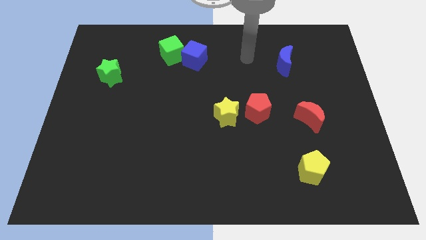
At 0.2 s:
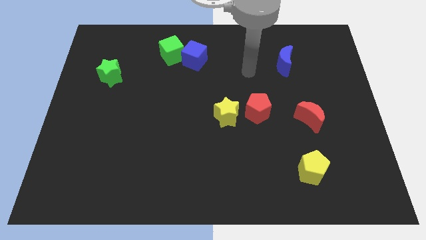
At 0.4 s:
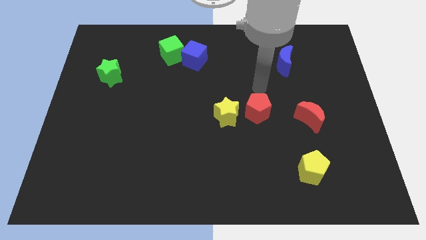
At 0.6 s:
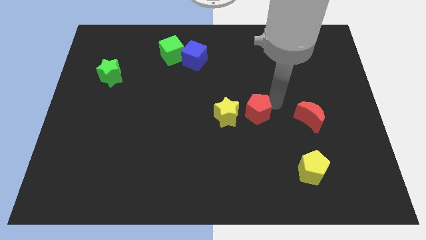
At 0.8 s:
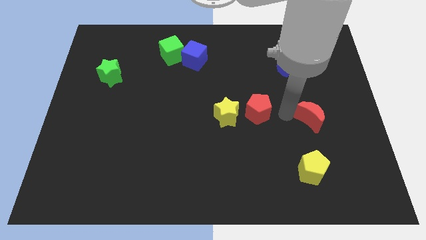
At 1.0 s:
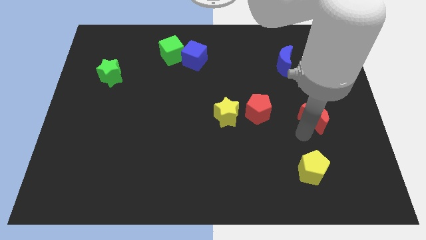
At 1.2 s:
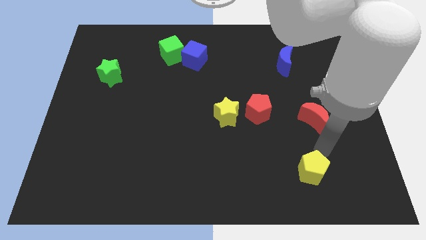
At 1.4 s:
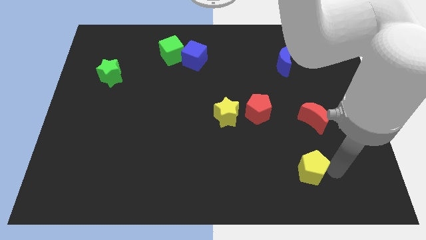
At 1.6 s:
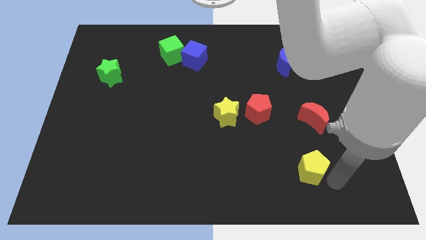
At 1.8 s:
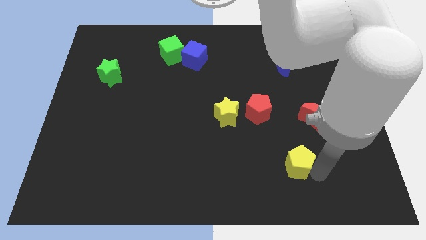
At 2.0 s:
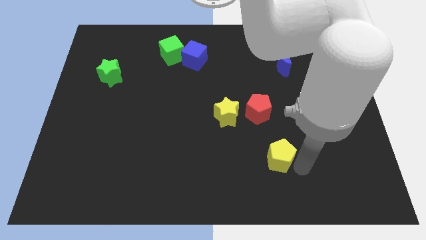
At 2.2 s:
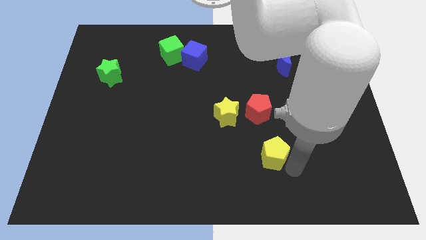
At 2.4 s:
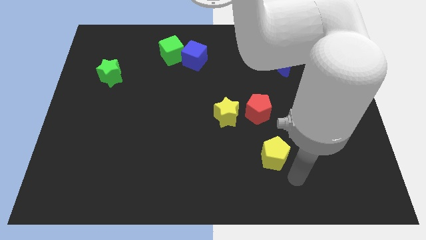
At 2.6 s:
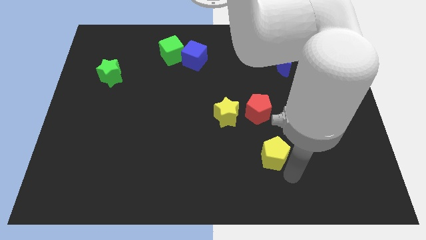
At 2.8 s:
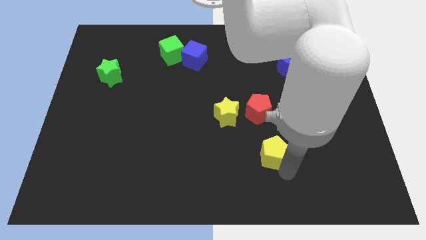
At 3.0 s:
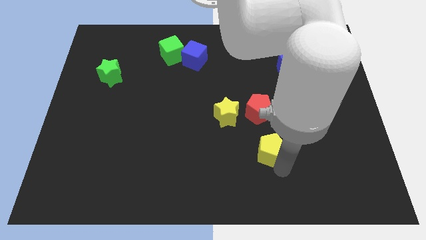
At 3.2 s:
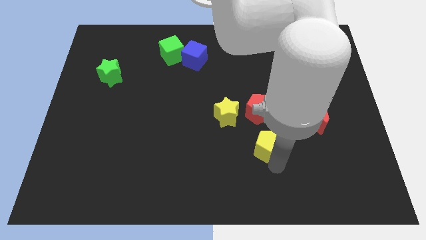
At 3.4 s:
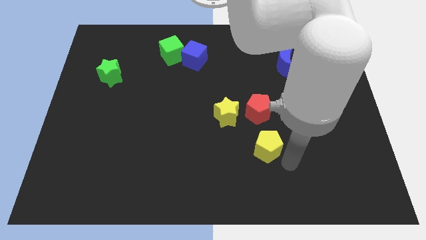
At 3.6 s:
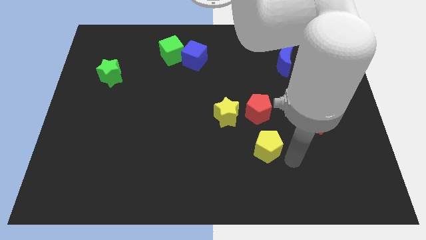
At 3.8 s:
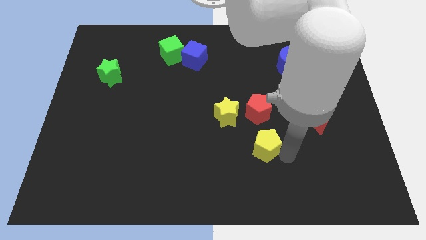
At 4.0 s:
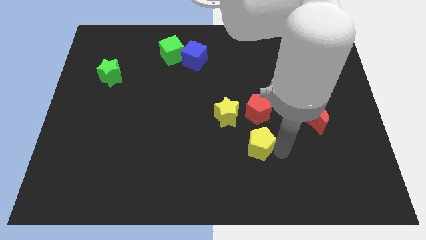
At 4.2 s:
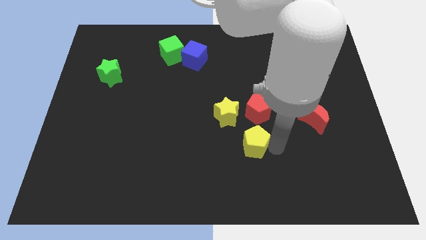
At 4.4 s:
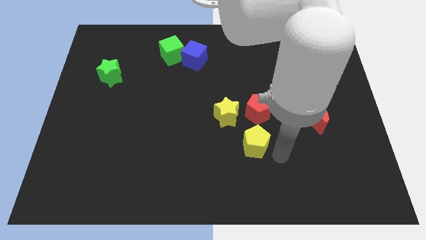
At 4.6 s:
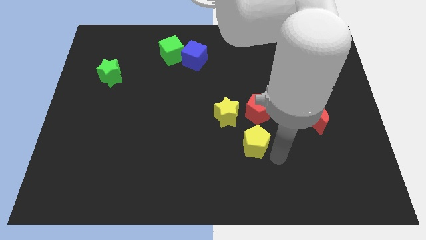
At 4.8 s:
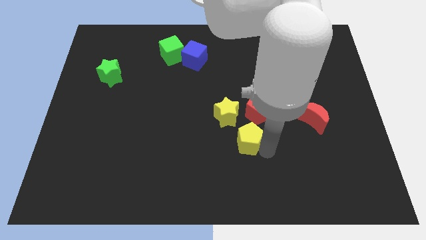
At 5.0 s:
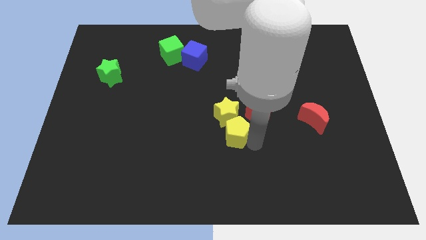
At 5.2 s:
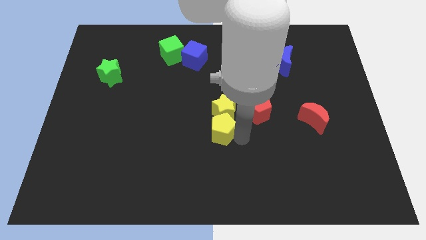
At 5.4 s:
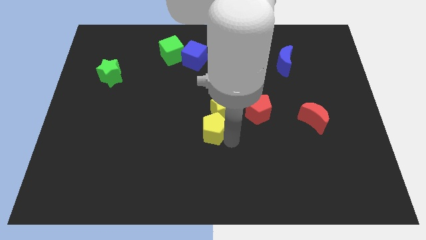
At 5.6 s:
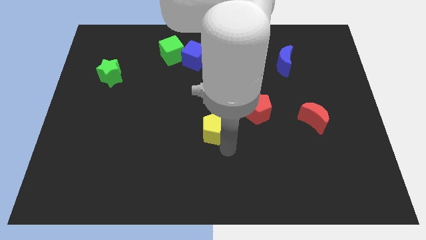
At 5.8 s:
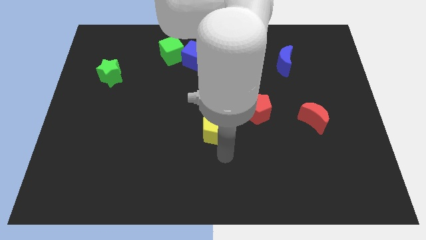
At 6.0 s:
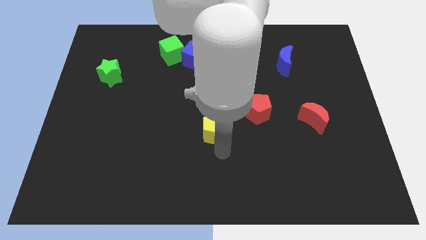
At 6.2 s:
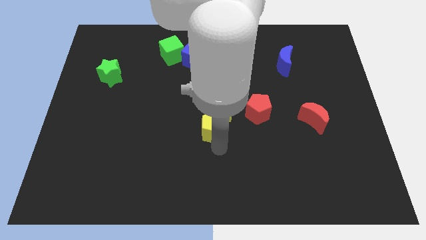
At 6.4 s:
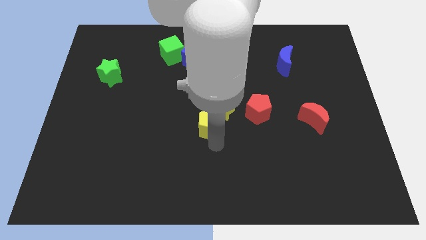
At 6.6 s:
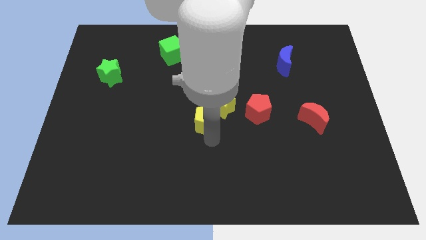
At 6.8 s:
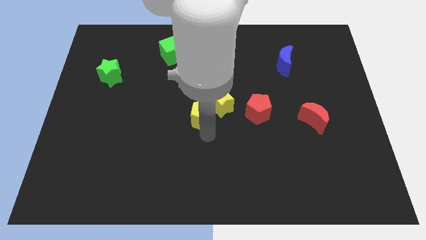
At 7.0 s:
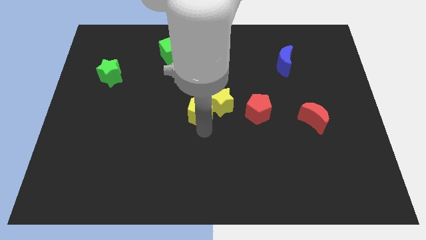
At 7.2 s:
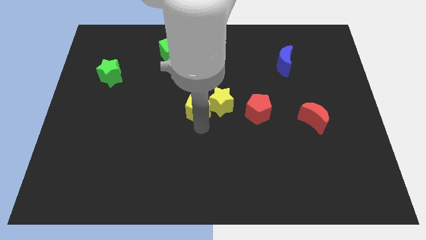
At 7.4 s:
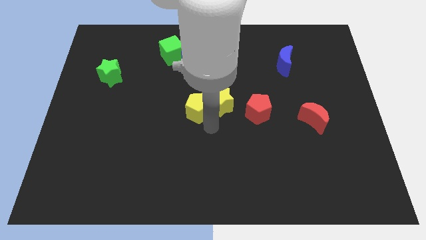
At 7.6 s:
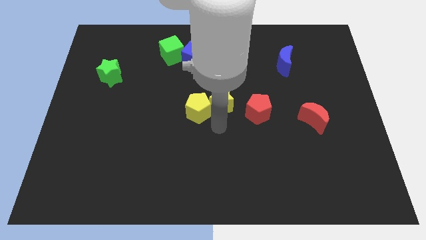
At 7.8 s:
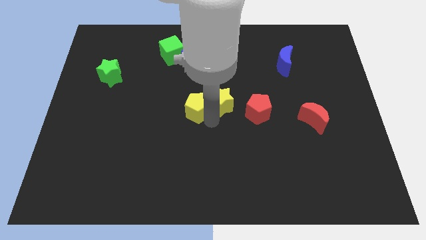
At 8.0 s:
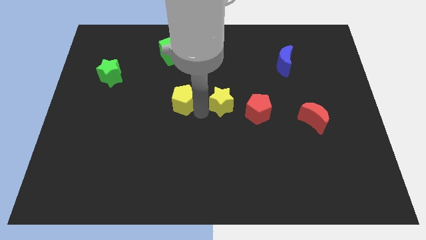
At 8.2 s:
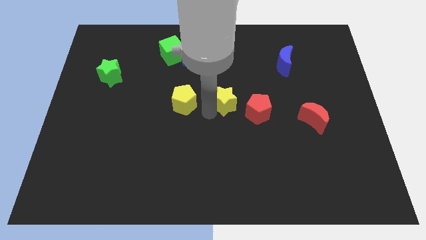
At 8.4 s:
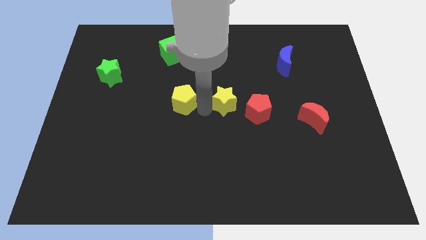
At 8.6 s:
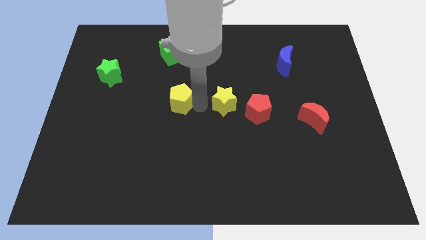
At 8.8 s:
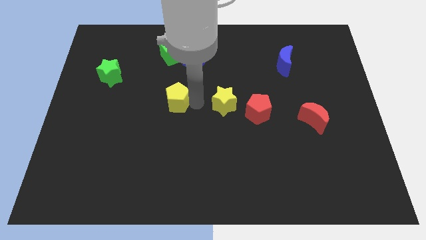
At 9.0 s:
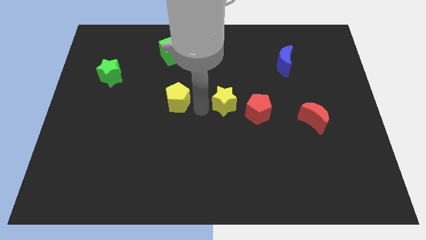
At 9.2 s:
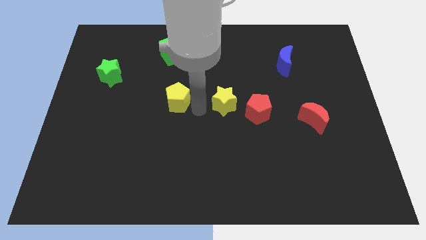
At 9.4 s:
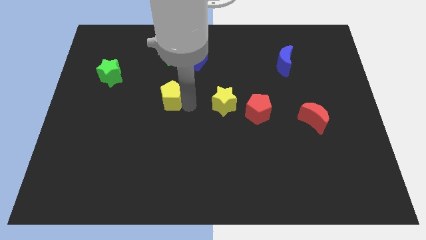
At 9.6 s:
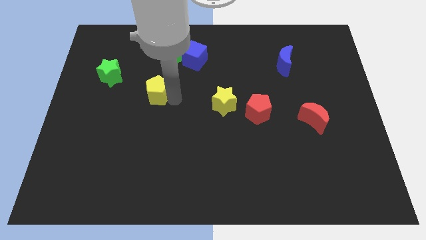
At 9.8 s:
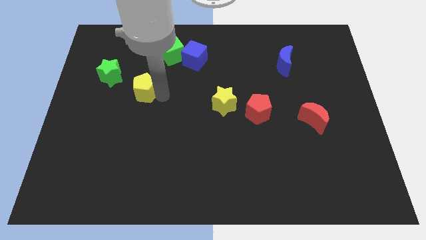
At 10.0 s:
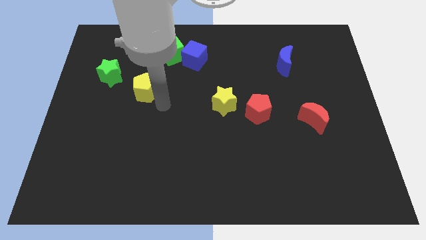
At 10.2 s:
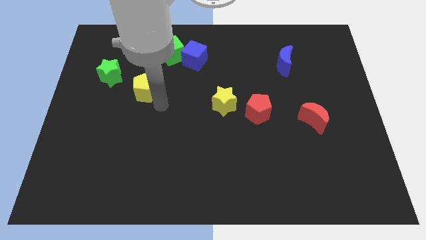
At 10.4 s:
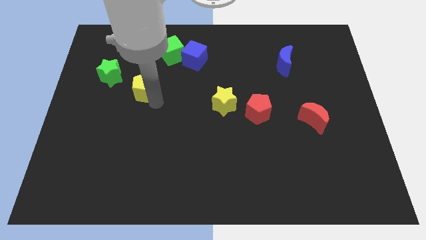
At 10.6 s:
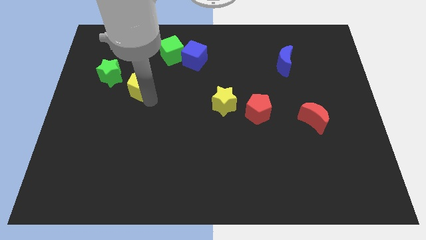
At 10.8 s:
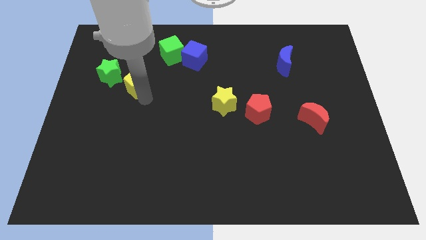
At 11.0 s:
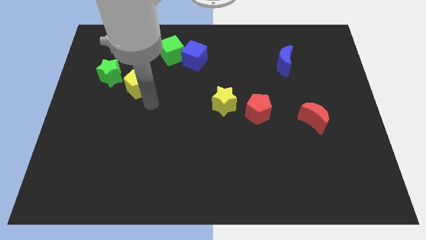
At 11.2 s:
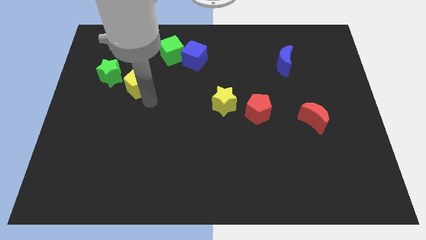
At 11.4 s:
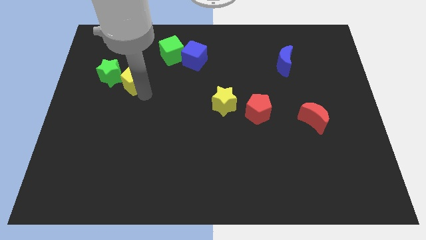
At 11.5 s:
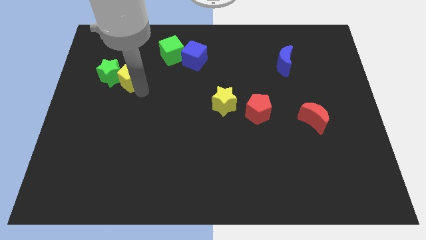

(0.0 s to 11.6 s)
push the yellow pentagon towards the green star

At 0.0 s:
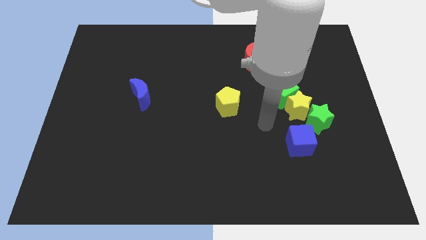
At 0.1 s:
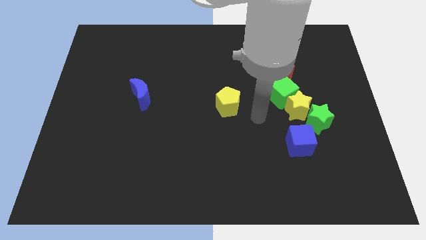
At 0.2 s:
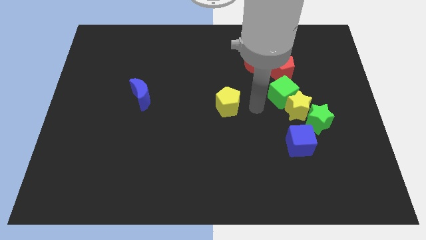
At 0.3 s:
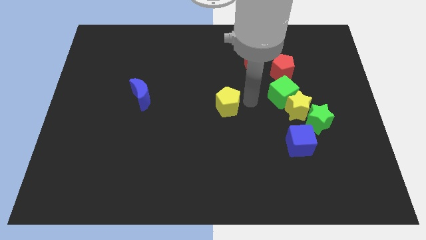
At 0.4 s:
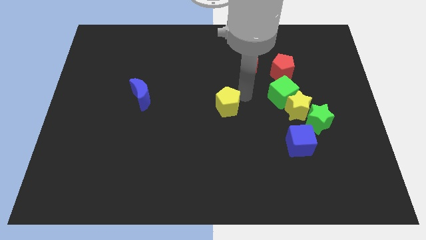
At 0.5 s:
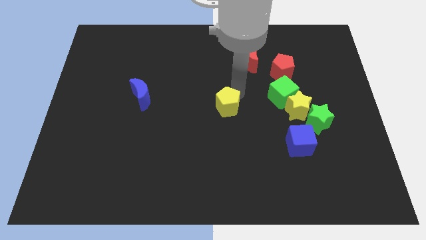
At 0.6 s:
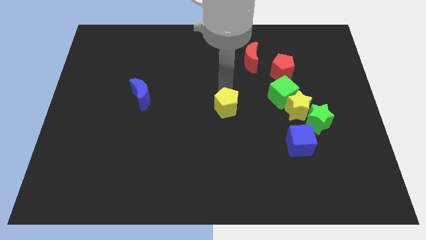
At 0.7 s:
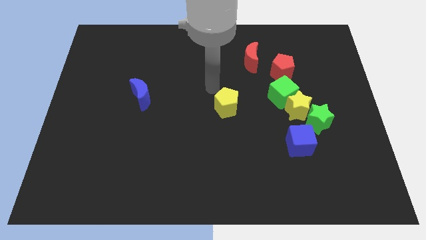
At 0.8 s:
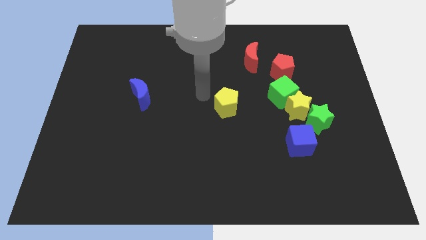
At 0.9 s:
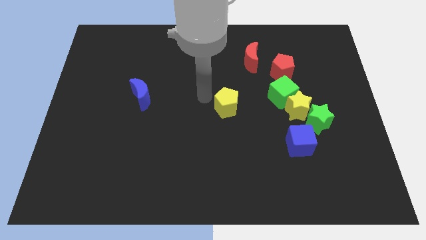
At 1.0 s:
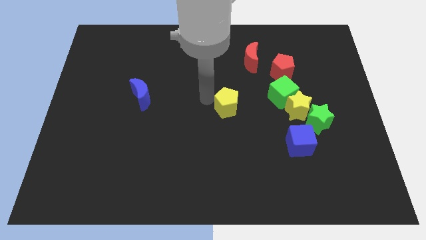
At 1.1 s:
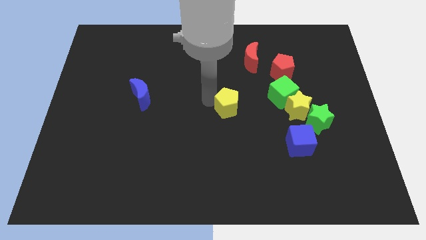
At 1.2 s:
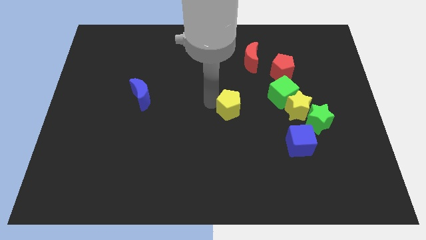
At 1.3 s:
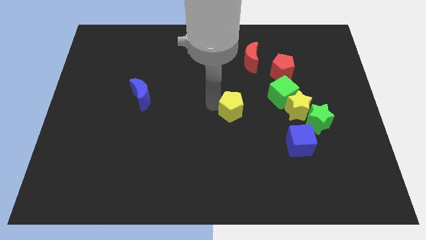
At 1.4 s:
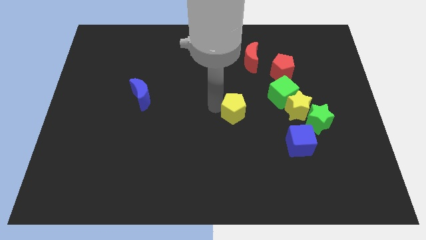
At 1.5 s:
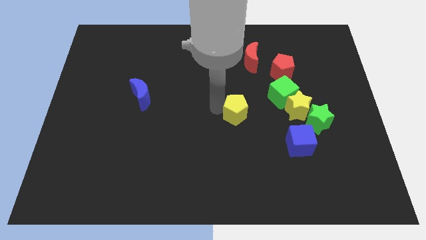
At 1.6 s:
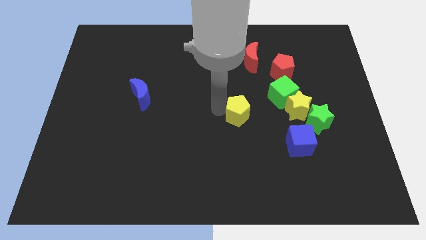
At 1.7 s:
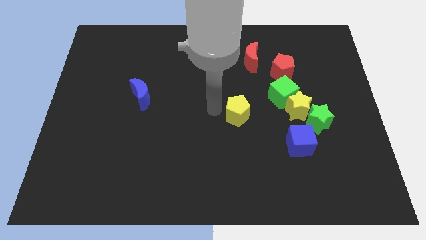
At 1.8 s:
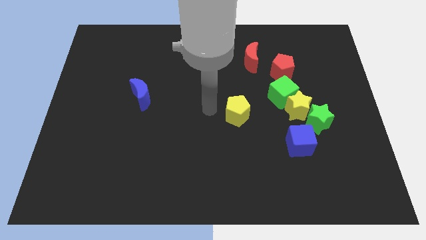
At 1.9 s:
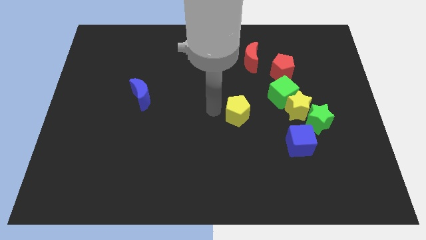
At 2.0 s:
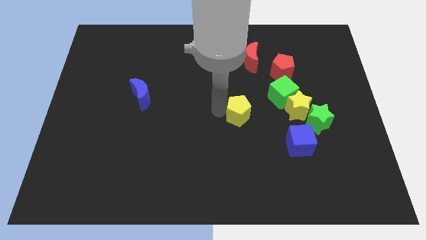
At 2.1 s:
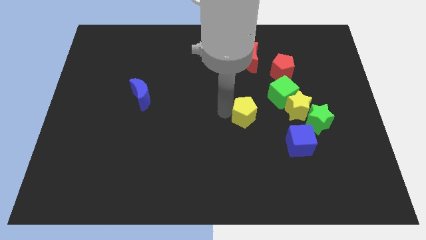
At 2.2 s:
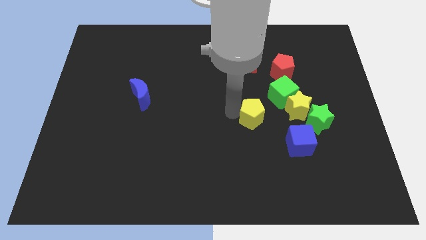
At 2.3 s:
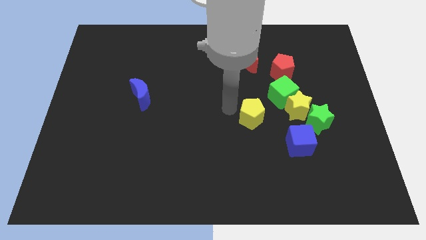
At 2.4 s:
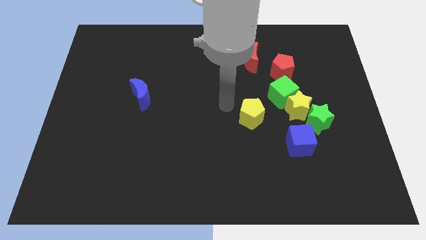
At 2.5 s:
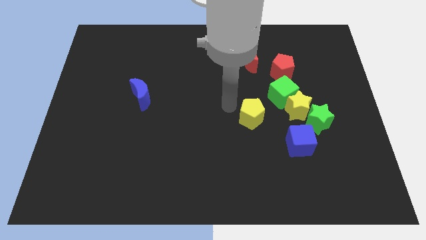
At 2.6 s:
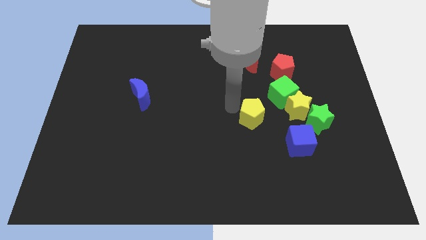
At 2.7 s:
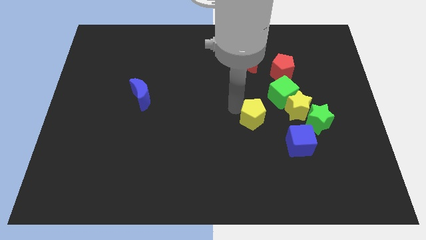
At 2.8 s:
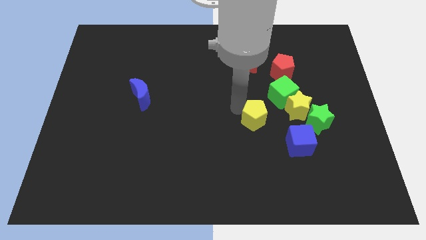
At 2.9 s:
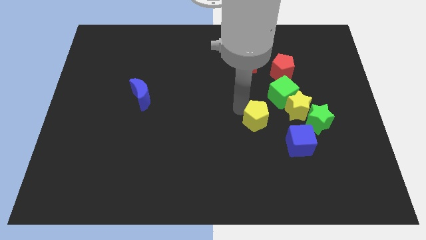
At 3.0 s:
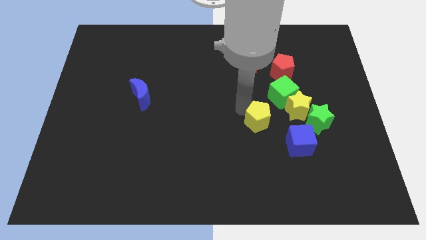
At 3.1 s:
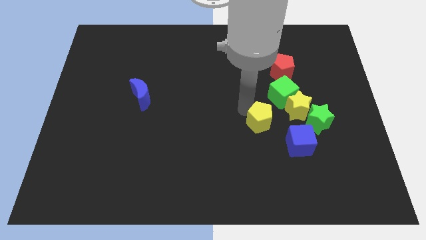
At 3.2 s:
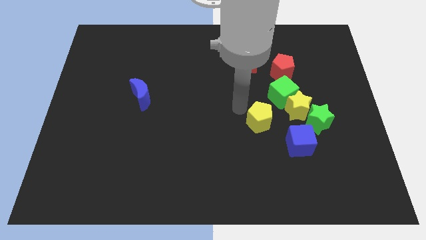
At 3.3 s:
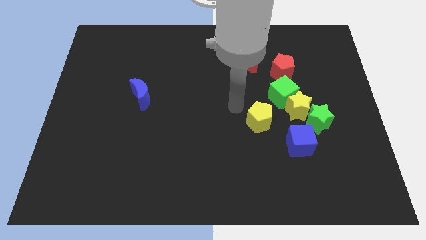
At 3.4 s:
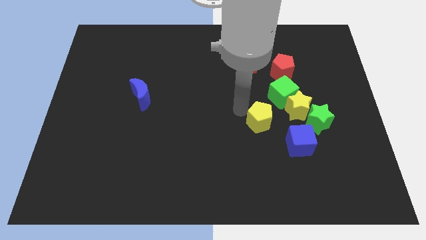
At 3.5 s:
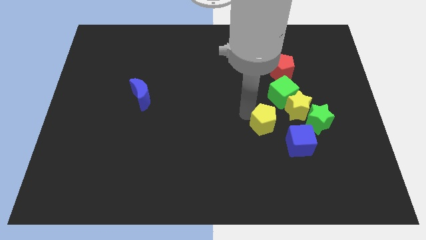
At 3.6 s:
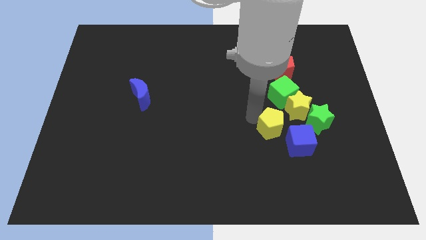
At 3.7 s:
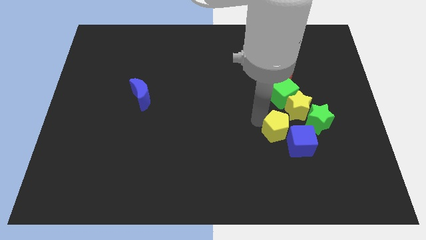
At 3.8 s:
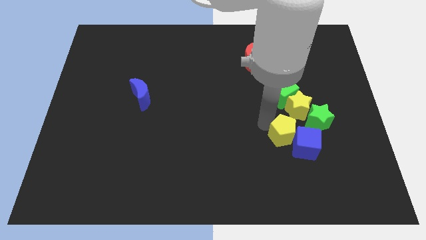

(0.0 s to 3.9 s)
move the yellow pentagon to the blue cube
